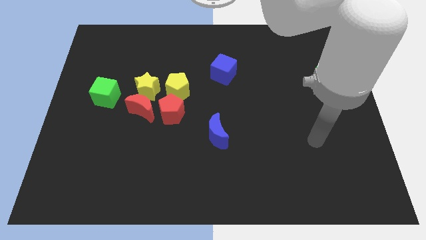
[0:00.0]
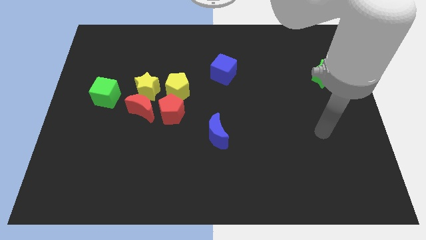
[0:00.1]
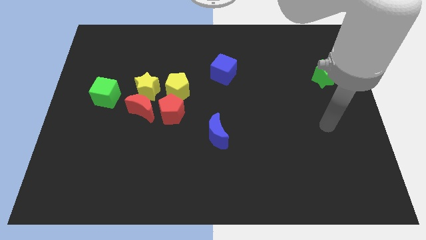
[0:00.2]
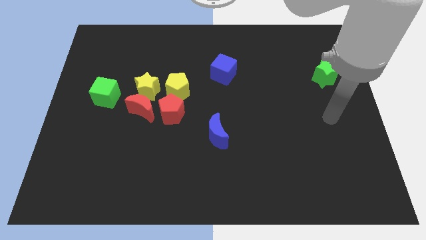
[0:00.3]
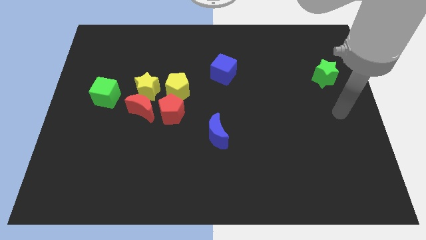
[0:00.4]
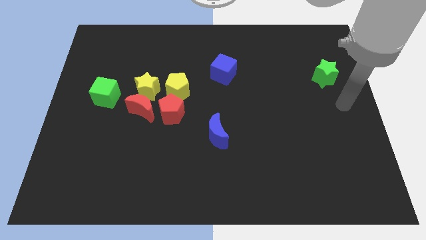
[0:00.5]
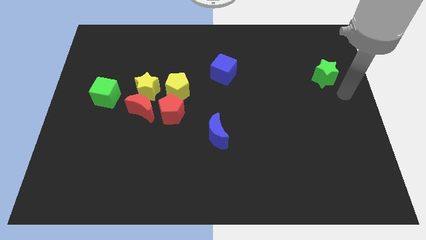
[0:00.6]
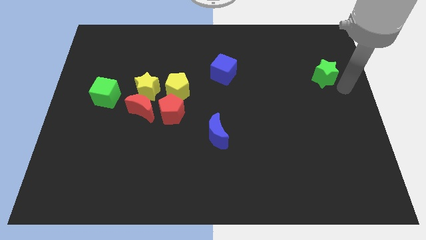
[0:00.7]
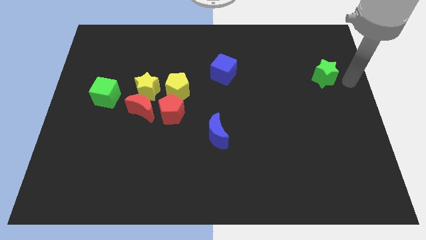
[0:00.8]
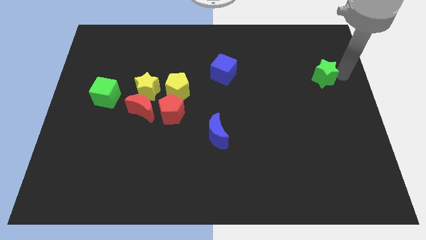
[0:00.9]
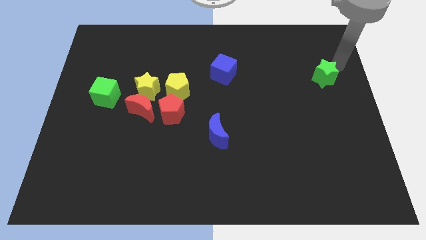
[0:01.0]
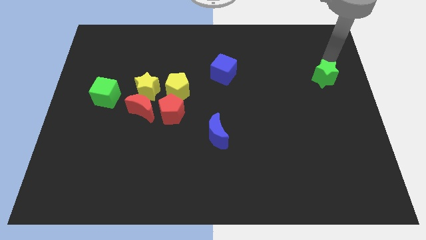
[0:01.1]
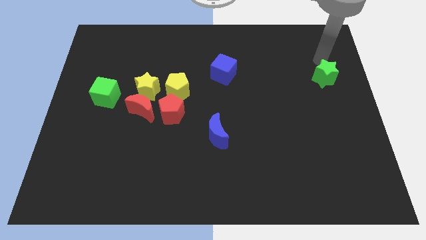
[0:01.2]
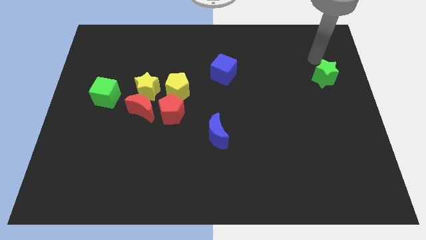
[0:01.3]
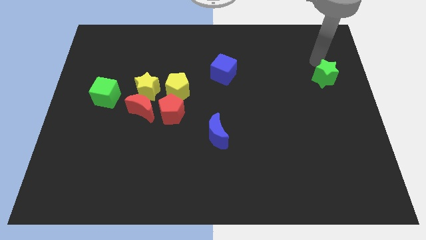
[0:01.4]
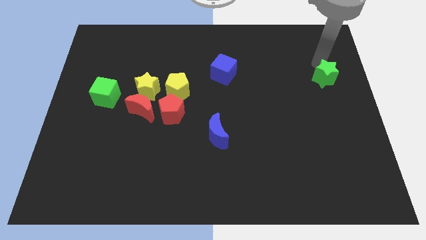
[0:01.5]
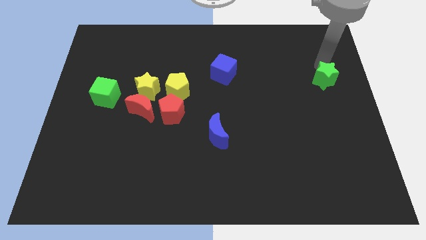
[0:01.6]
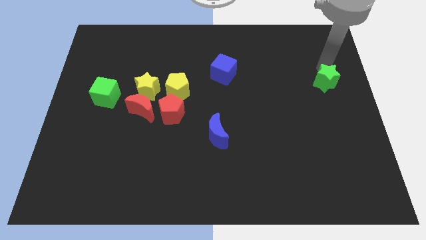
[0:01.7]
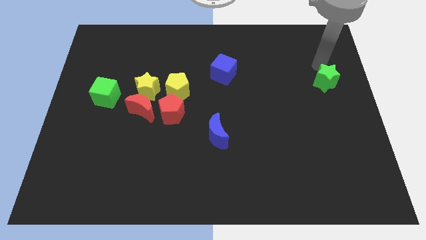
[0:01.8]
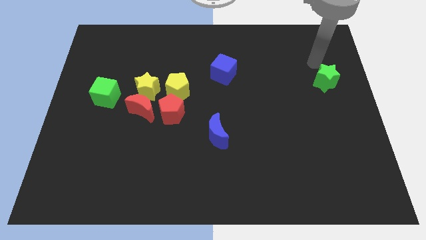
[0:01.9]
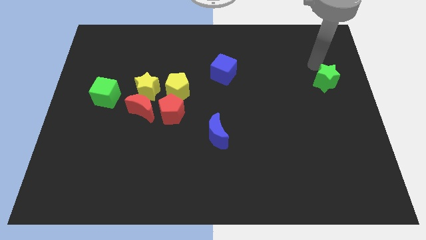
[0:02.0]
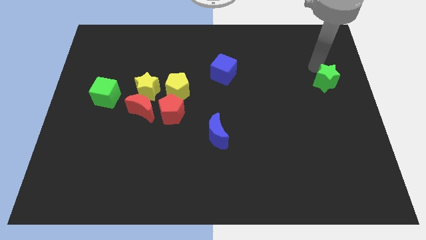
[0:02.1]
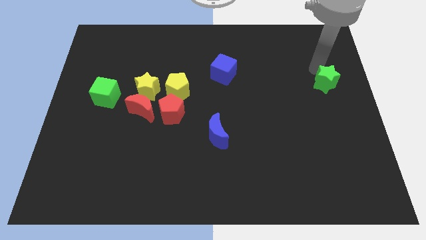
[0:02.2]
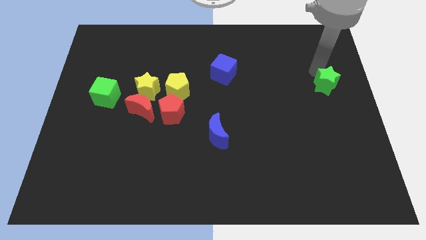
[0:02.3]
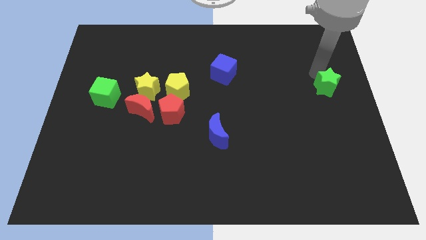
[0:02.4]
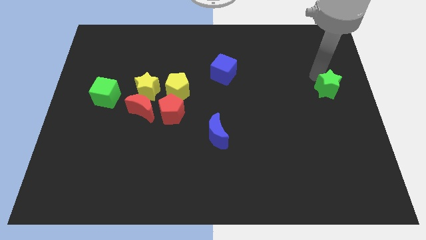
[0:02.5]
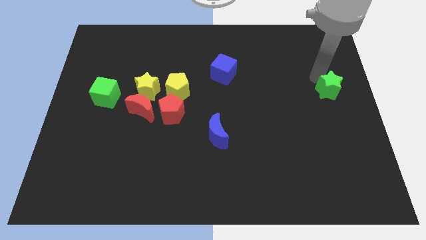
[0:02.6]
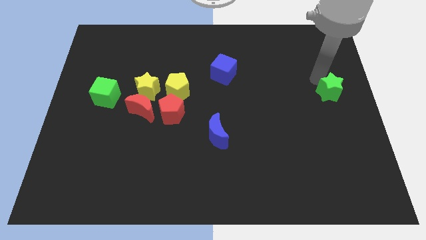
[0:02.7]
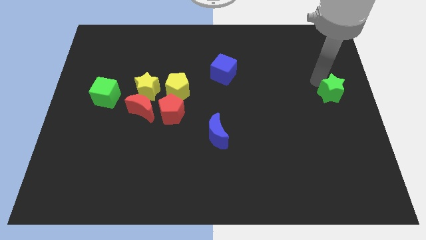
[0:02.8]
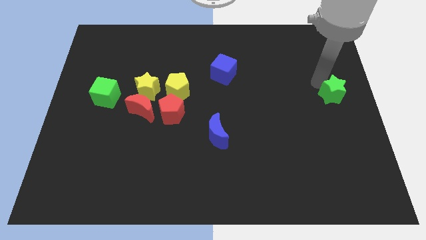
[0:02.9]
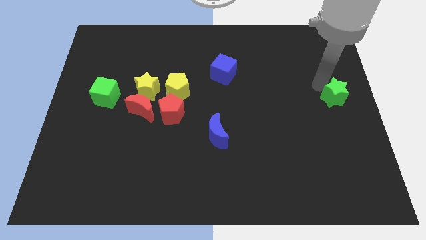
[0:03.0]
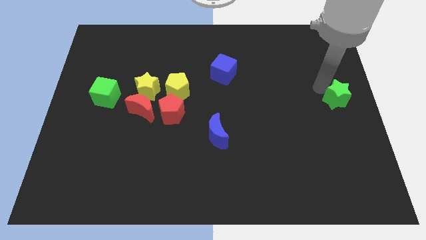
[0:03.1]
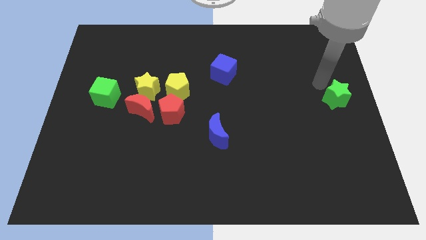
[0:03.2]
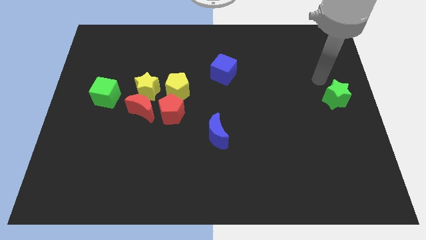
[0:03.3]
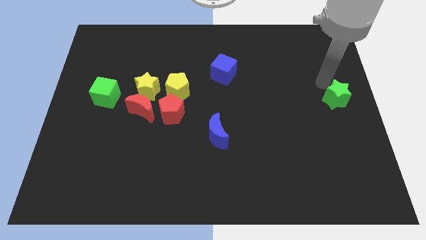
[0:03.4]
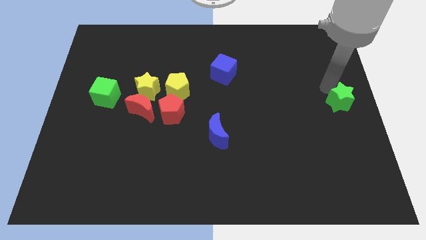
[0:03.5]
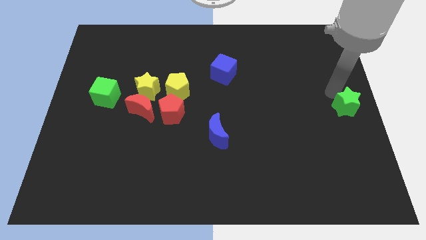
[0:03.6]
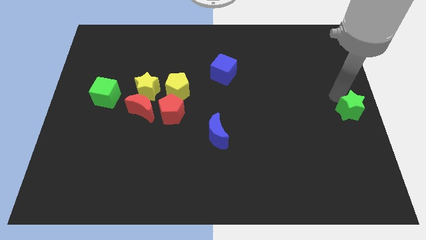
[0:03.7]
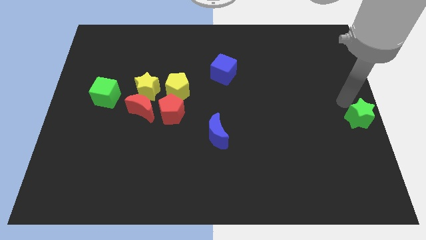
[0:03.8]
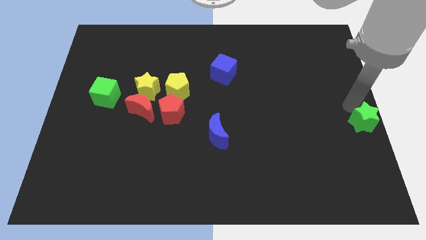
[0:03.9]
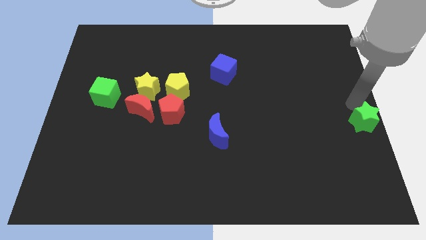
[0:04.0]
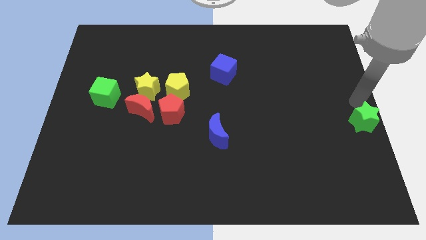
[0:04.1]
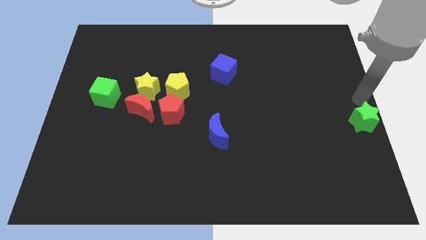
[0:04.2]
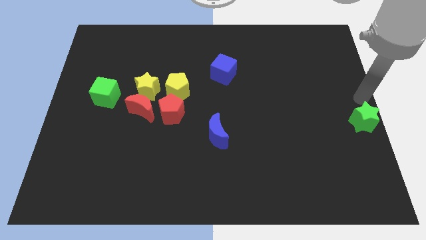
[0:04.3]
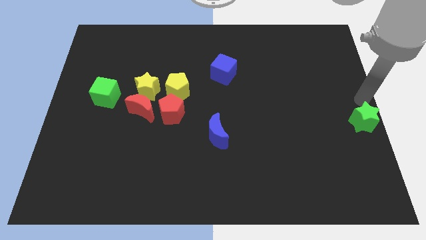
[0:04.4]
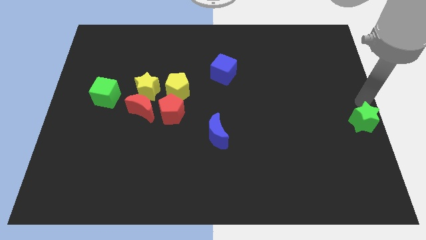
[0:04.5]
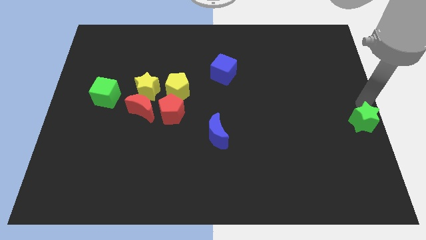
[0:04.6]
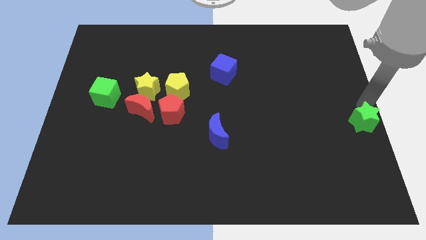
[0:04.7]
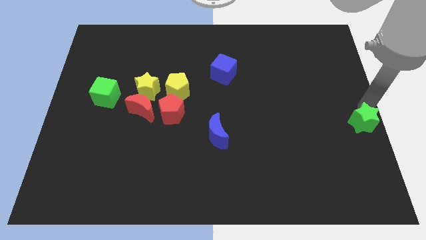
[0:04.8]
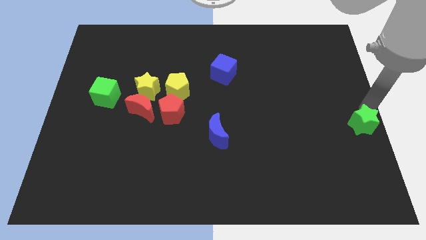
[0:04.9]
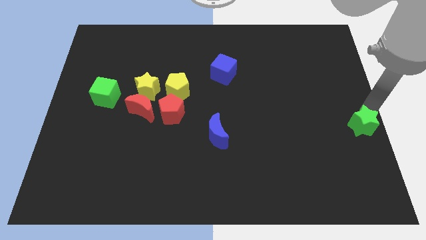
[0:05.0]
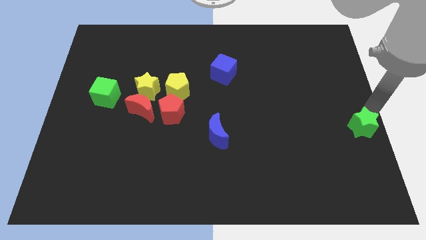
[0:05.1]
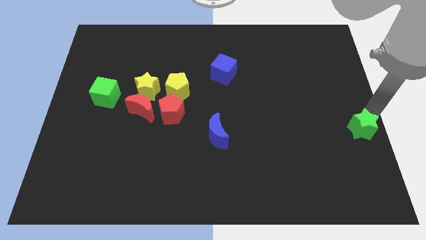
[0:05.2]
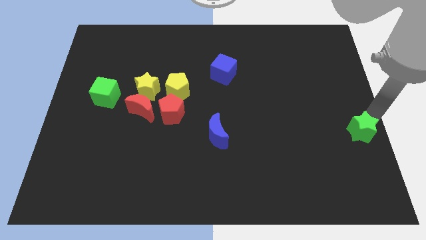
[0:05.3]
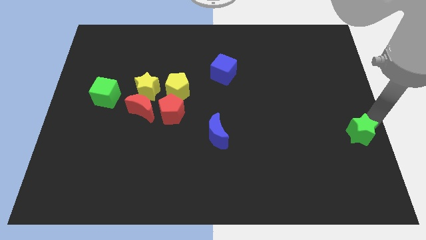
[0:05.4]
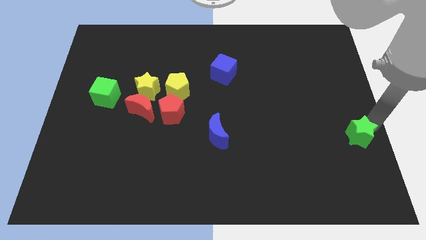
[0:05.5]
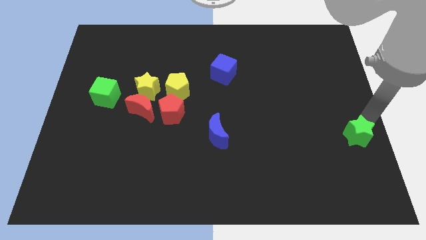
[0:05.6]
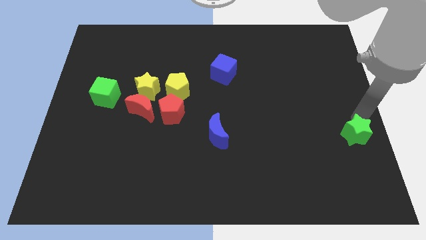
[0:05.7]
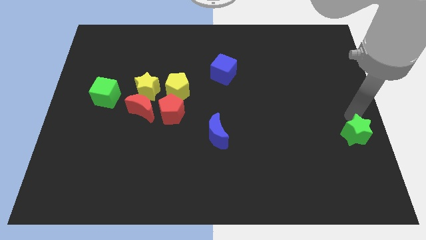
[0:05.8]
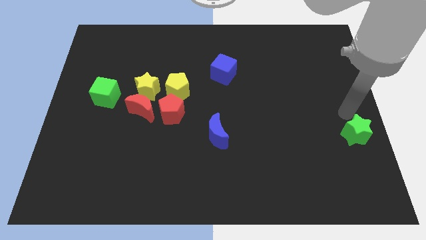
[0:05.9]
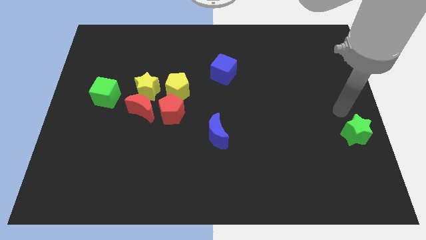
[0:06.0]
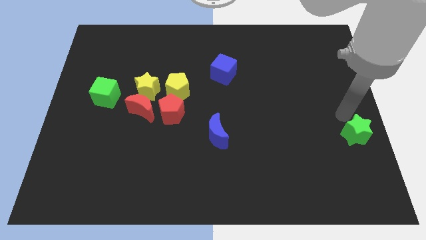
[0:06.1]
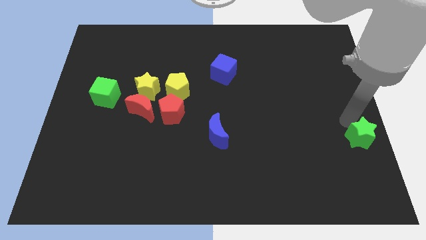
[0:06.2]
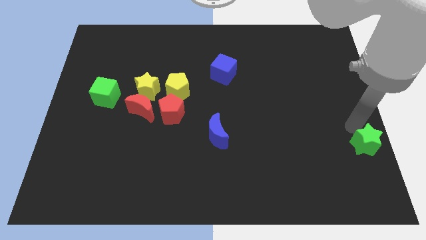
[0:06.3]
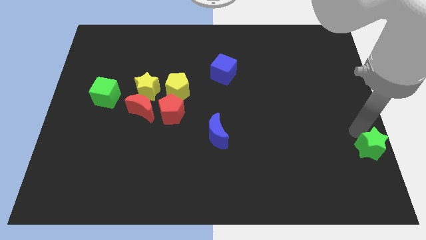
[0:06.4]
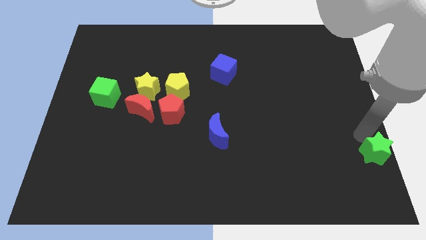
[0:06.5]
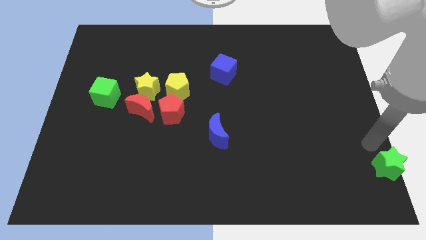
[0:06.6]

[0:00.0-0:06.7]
put the green star to the bottom right of the board

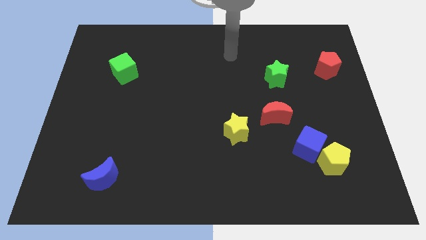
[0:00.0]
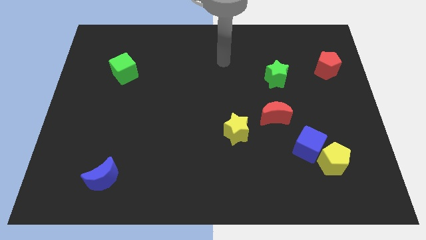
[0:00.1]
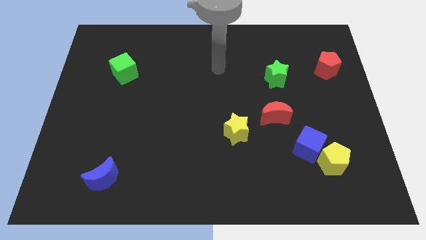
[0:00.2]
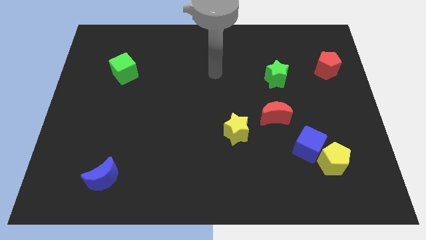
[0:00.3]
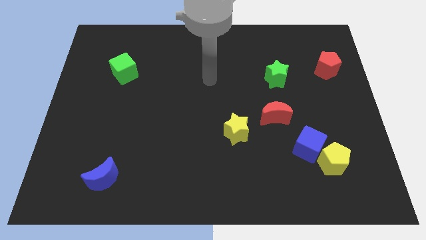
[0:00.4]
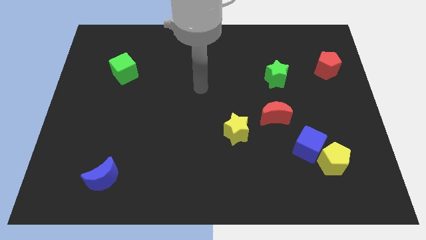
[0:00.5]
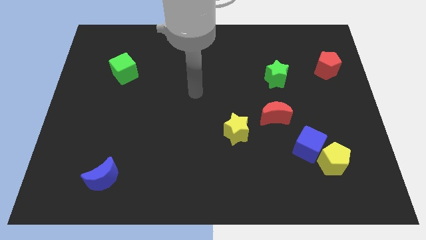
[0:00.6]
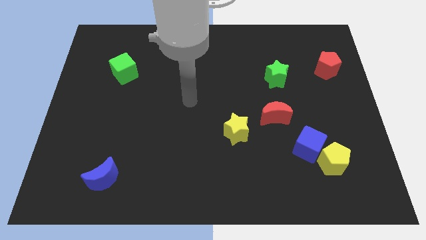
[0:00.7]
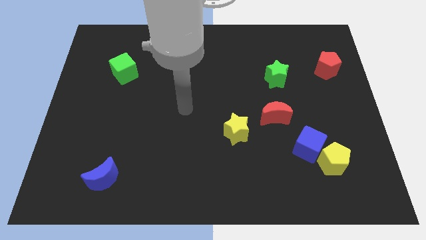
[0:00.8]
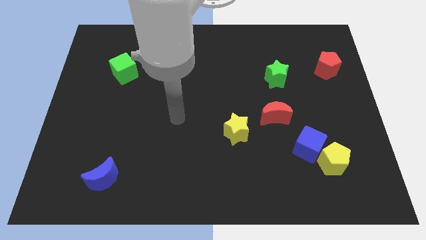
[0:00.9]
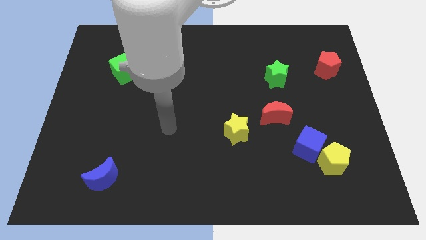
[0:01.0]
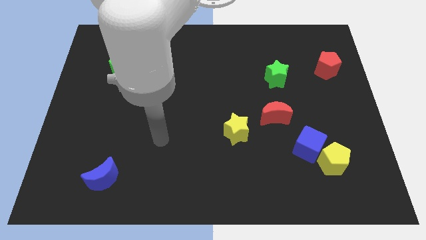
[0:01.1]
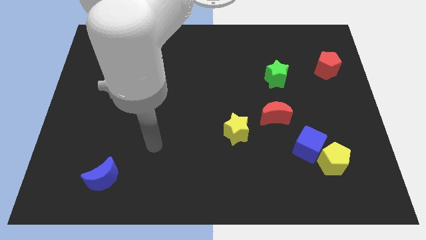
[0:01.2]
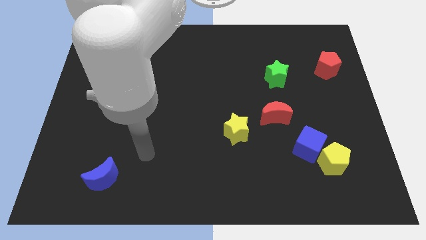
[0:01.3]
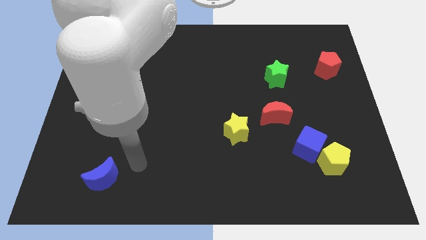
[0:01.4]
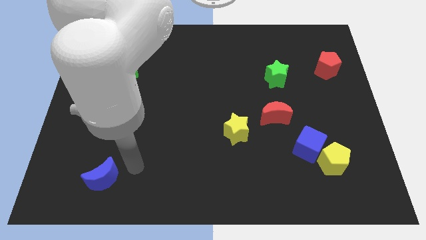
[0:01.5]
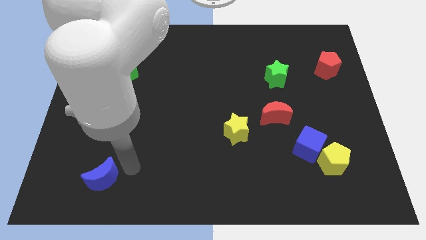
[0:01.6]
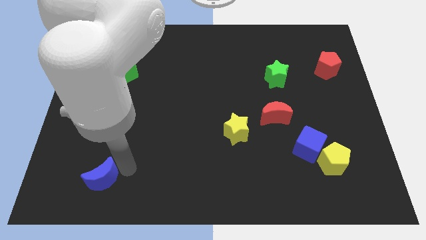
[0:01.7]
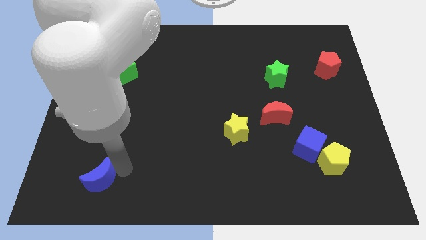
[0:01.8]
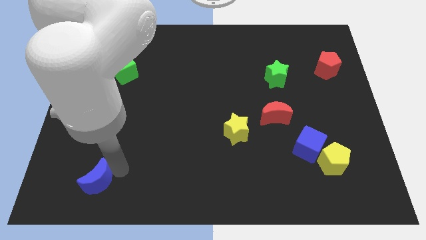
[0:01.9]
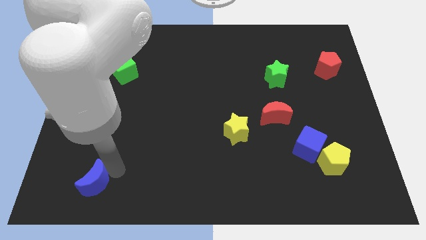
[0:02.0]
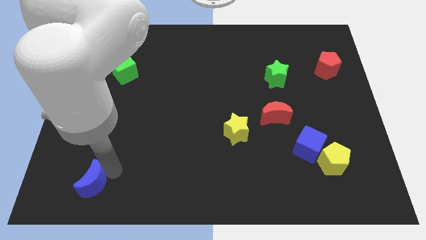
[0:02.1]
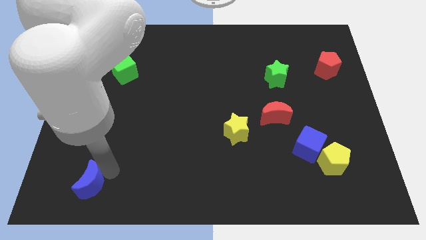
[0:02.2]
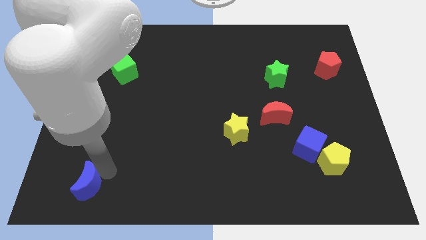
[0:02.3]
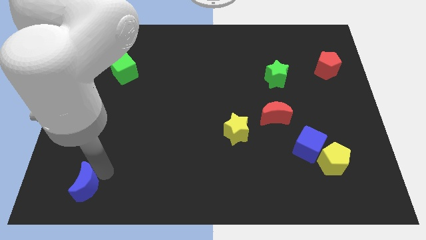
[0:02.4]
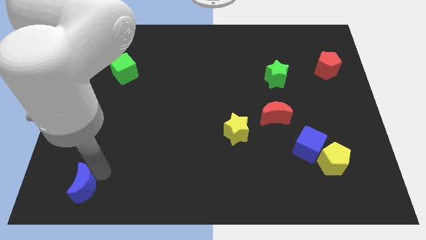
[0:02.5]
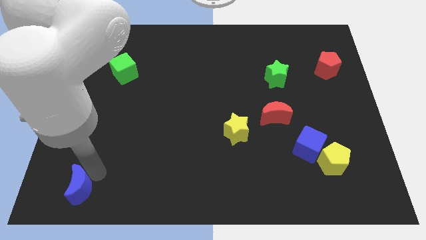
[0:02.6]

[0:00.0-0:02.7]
slide the blue moon to the bottom left corner
